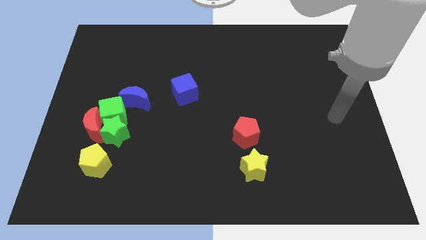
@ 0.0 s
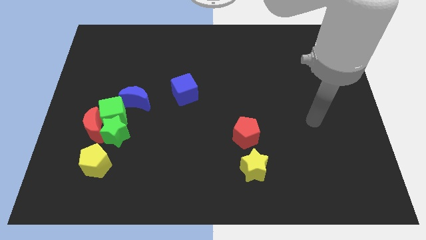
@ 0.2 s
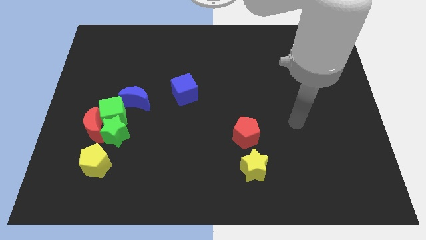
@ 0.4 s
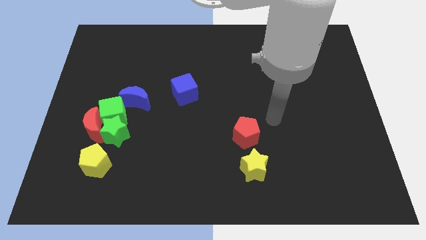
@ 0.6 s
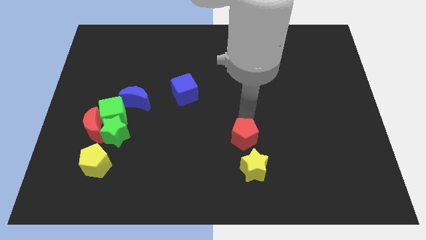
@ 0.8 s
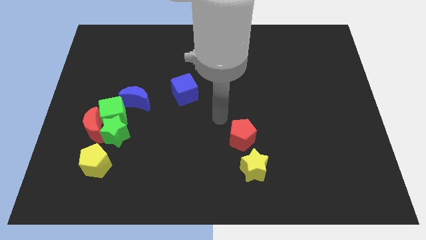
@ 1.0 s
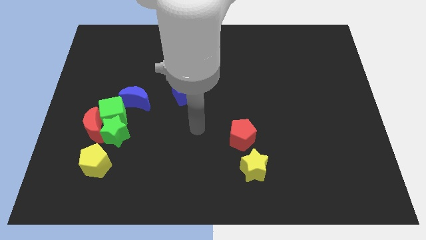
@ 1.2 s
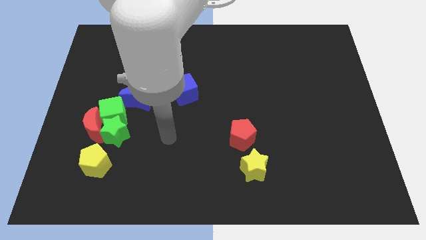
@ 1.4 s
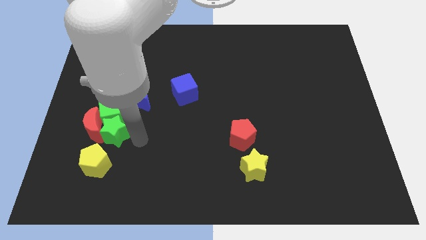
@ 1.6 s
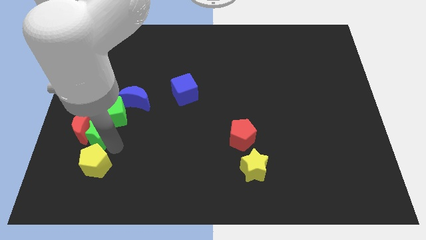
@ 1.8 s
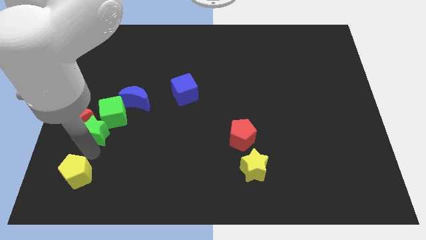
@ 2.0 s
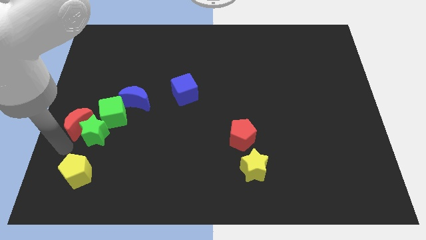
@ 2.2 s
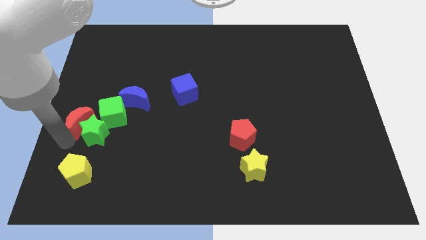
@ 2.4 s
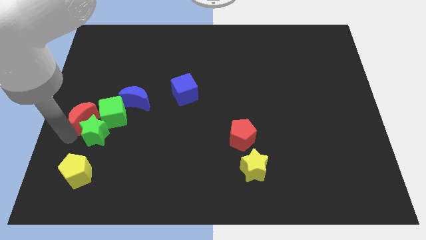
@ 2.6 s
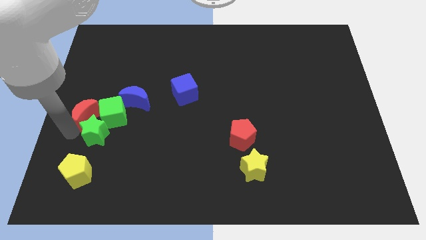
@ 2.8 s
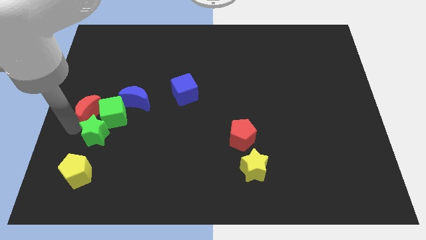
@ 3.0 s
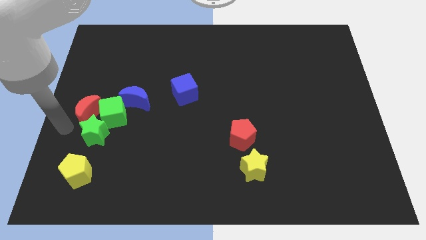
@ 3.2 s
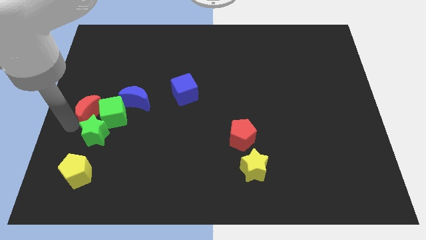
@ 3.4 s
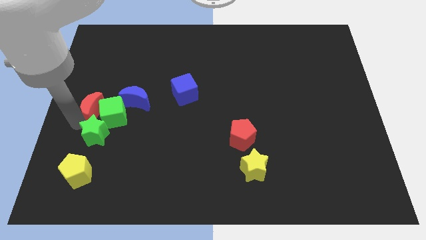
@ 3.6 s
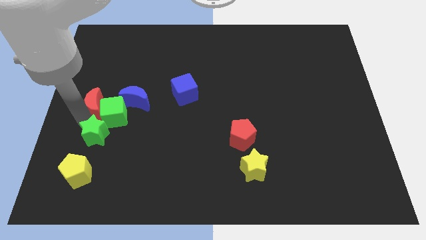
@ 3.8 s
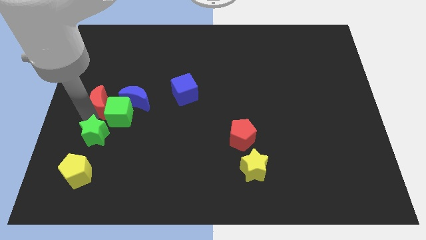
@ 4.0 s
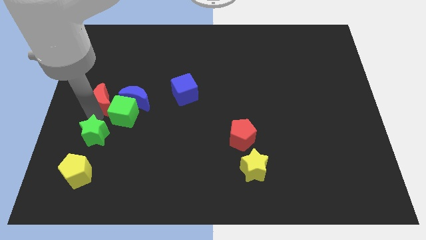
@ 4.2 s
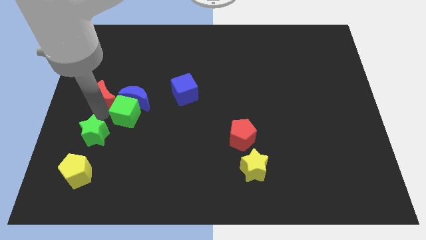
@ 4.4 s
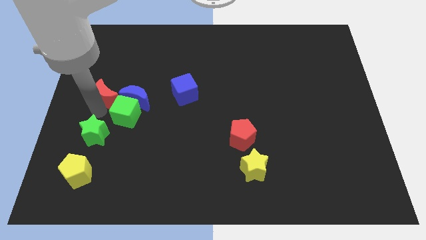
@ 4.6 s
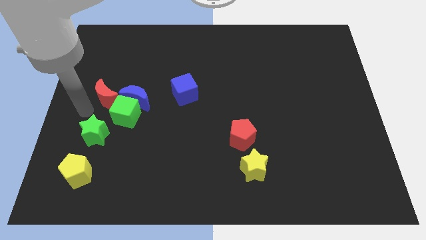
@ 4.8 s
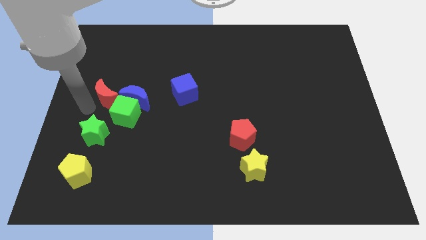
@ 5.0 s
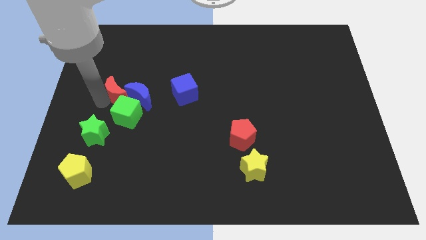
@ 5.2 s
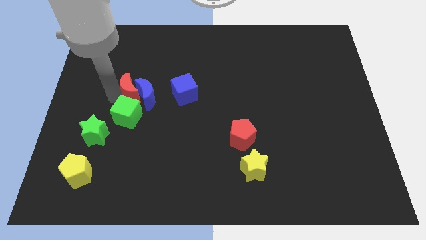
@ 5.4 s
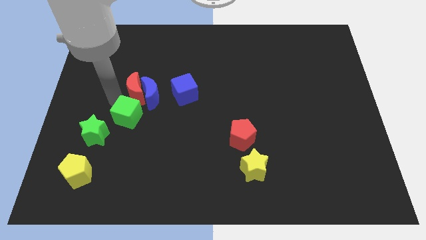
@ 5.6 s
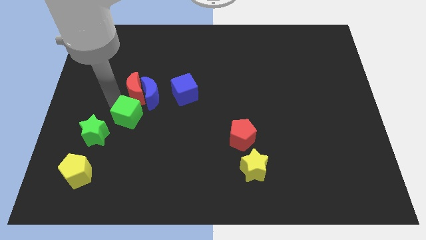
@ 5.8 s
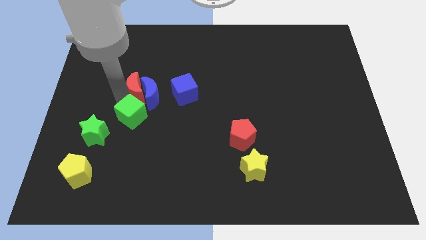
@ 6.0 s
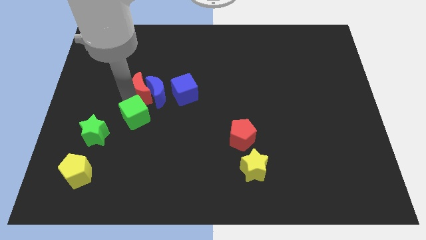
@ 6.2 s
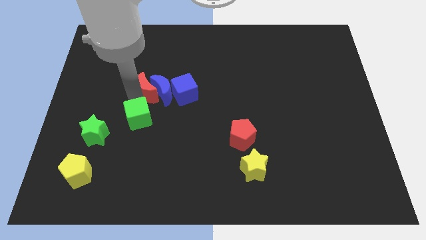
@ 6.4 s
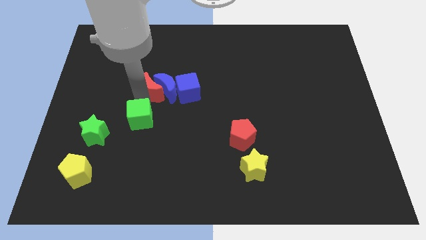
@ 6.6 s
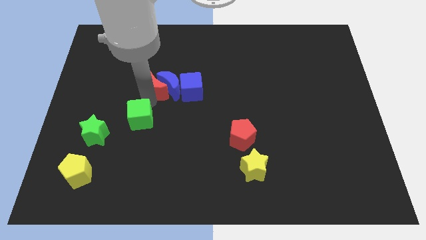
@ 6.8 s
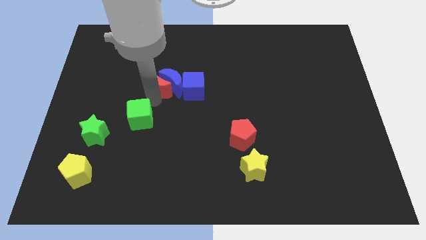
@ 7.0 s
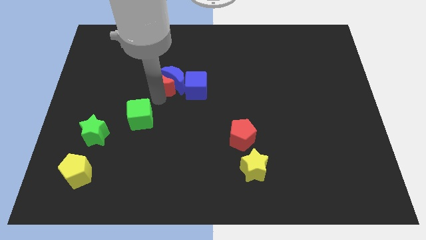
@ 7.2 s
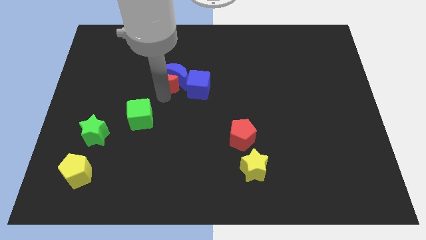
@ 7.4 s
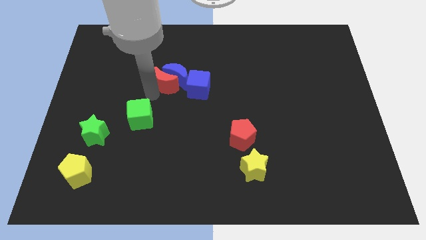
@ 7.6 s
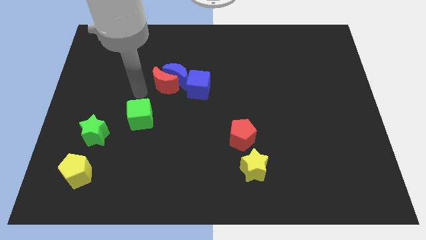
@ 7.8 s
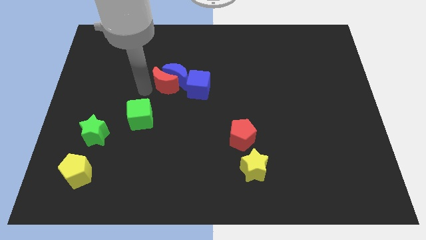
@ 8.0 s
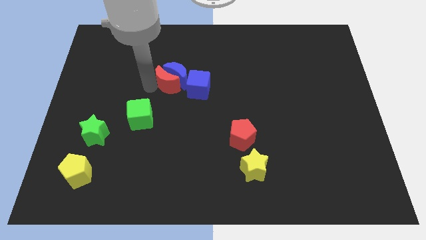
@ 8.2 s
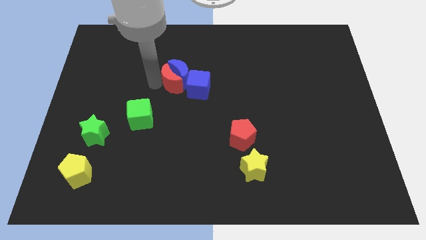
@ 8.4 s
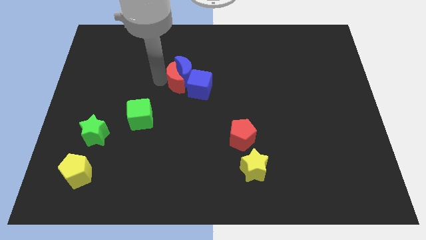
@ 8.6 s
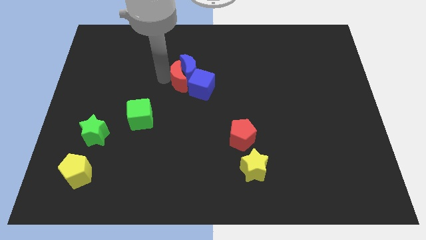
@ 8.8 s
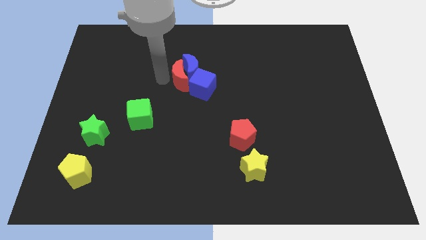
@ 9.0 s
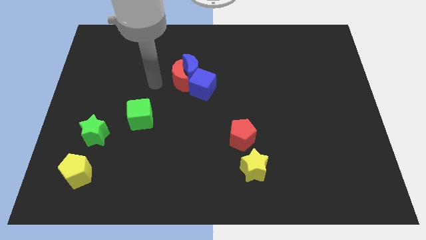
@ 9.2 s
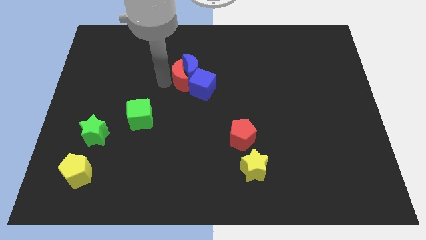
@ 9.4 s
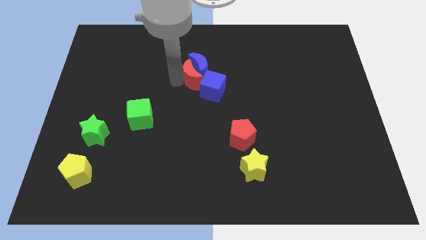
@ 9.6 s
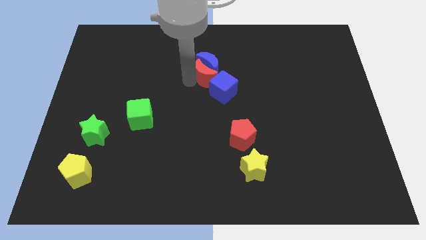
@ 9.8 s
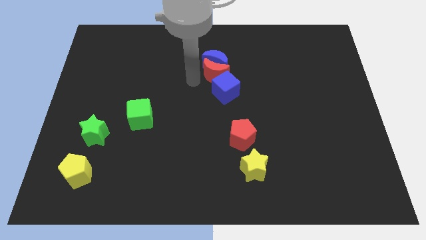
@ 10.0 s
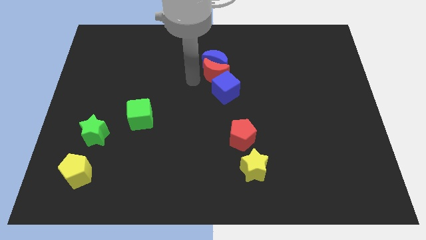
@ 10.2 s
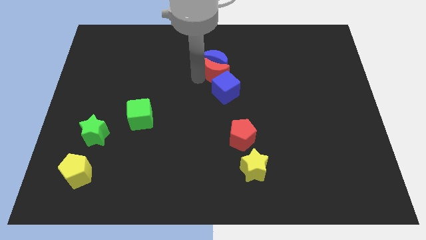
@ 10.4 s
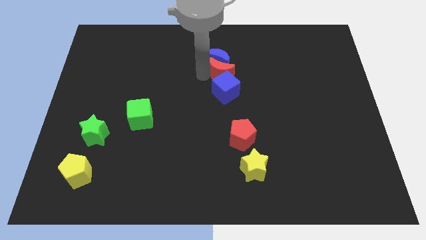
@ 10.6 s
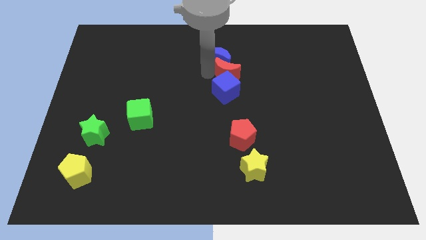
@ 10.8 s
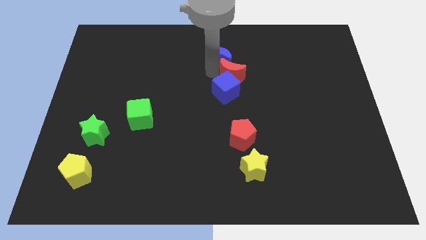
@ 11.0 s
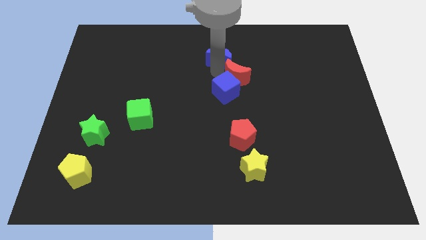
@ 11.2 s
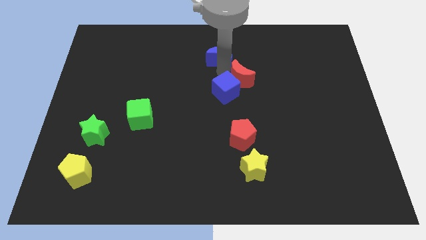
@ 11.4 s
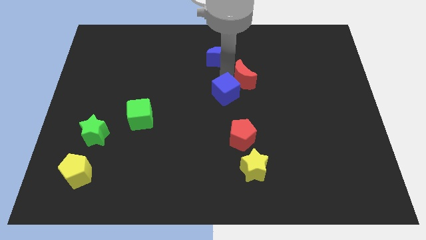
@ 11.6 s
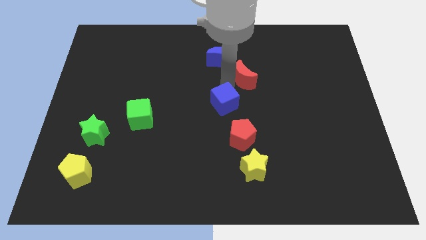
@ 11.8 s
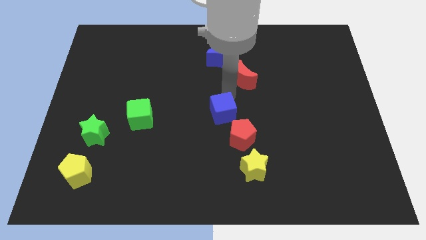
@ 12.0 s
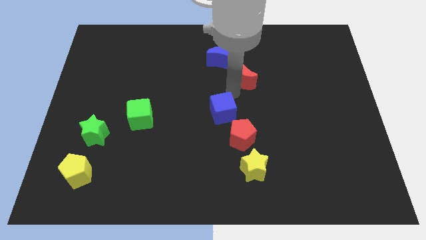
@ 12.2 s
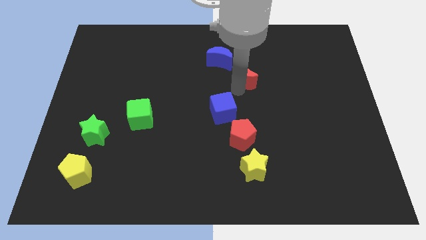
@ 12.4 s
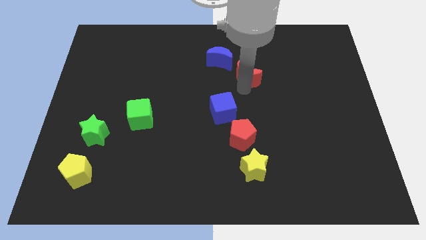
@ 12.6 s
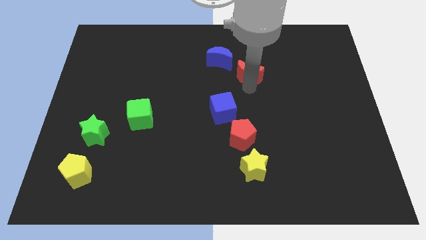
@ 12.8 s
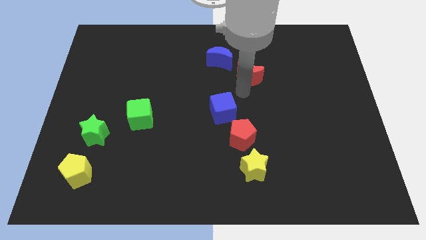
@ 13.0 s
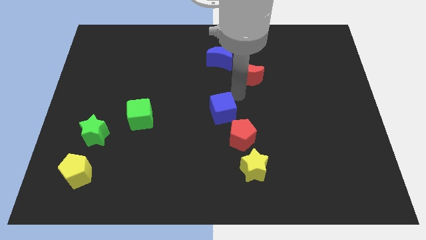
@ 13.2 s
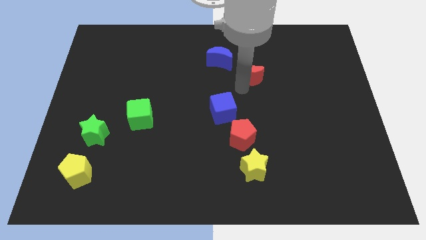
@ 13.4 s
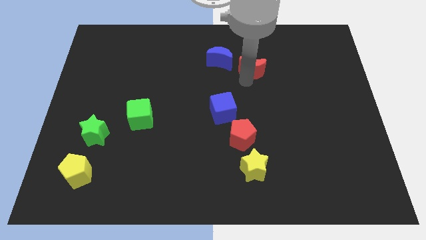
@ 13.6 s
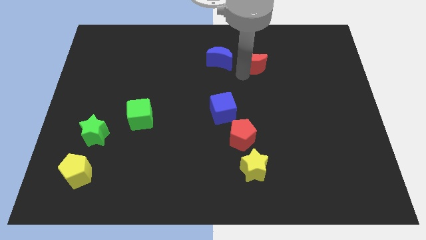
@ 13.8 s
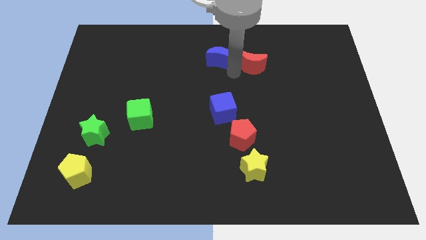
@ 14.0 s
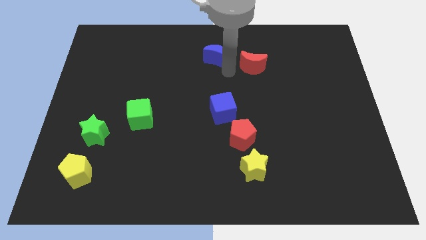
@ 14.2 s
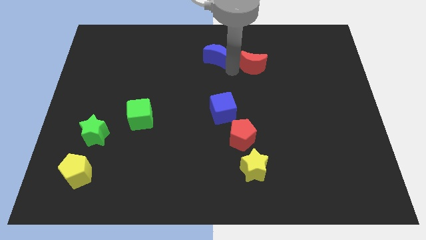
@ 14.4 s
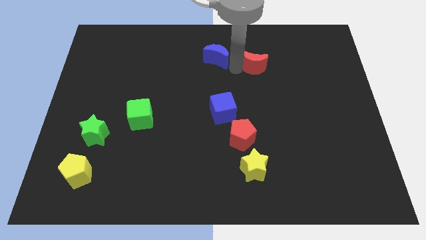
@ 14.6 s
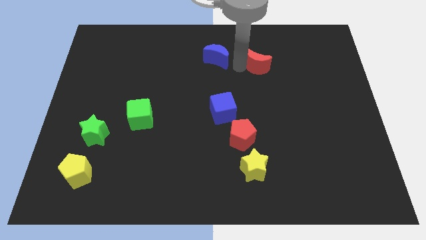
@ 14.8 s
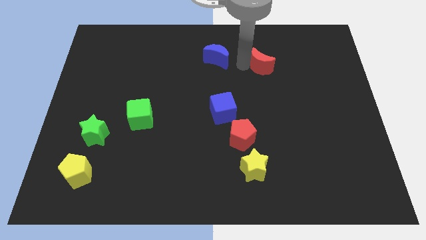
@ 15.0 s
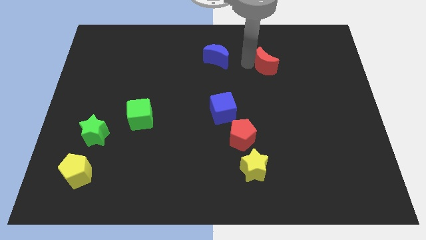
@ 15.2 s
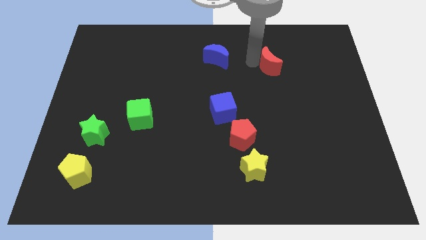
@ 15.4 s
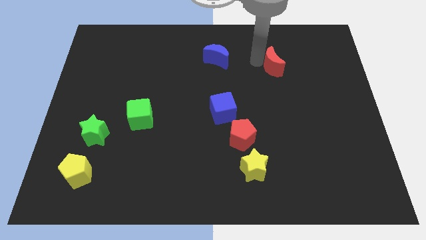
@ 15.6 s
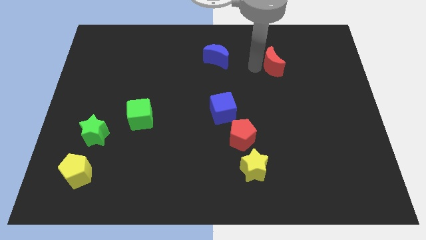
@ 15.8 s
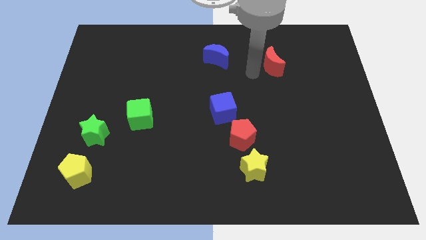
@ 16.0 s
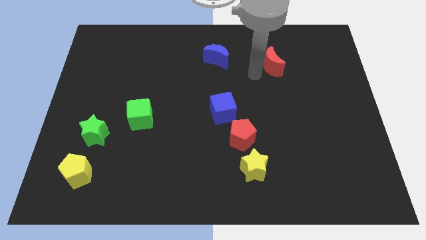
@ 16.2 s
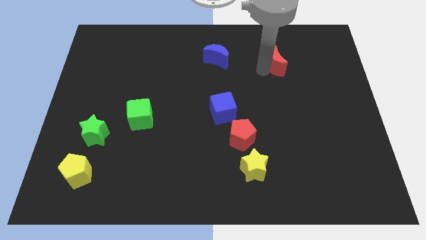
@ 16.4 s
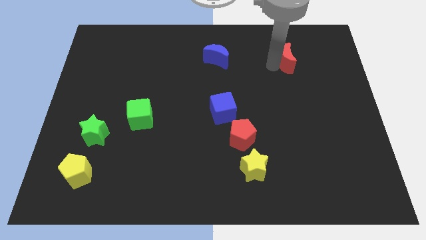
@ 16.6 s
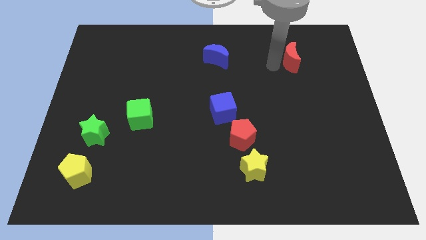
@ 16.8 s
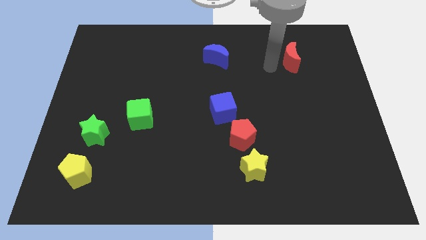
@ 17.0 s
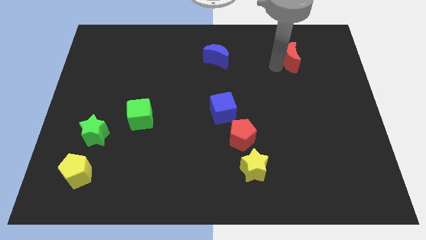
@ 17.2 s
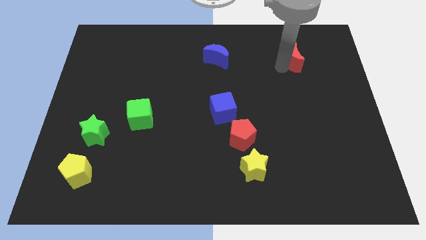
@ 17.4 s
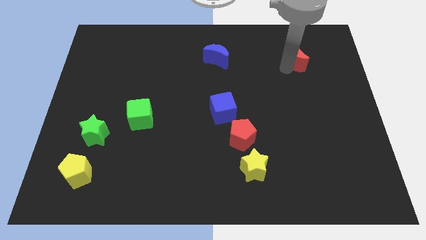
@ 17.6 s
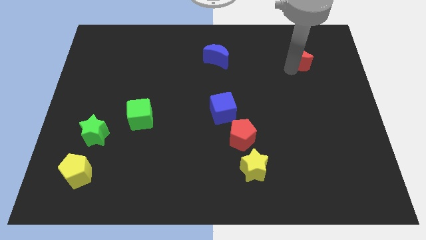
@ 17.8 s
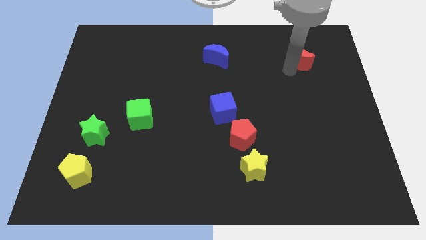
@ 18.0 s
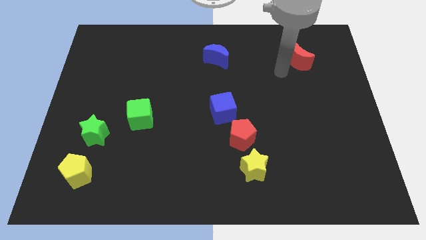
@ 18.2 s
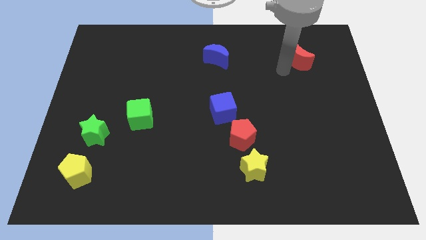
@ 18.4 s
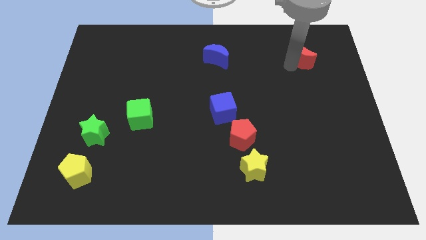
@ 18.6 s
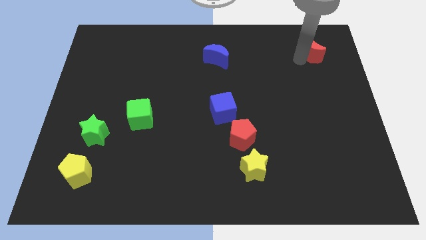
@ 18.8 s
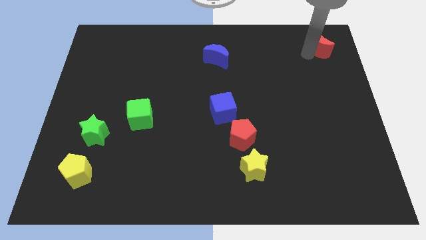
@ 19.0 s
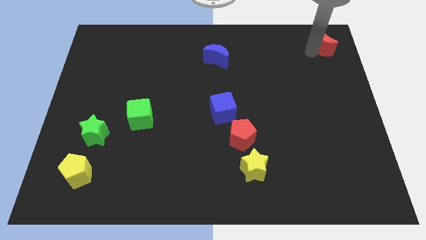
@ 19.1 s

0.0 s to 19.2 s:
push the red moon to the top right corner
